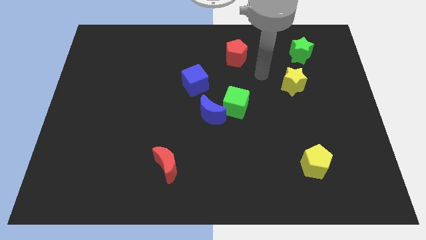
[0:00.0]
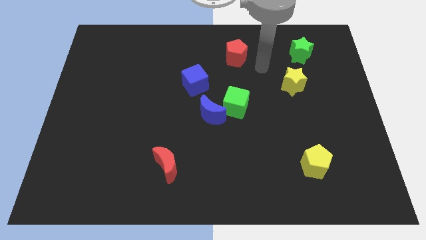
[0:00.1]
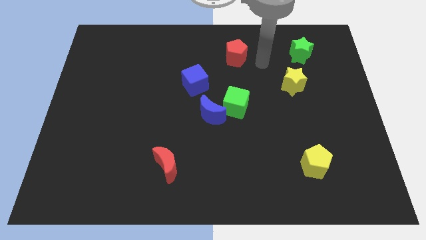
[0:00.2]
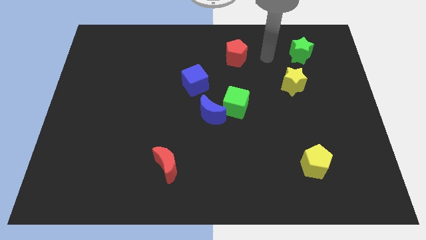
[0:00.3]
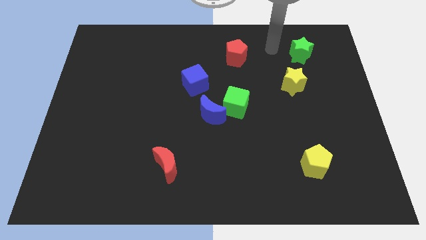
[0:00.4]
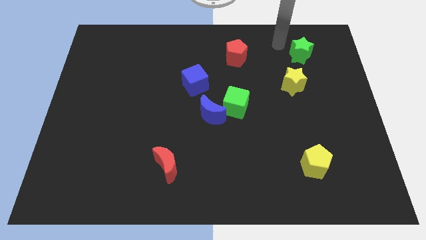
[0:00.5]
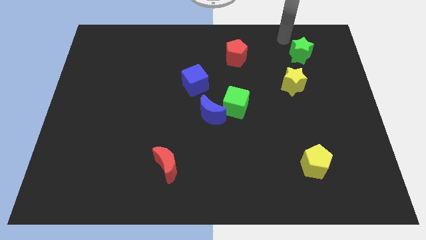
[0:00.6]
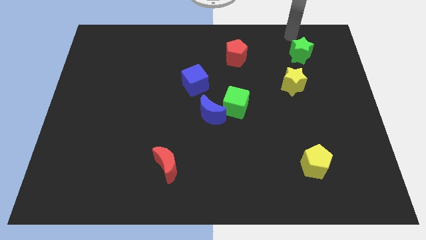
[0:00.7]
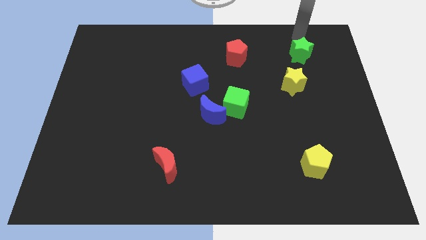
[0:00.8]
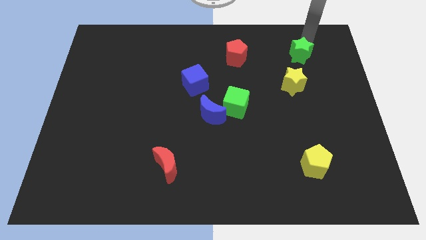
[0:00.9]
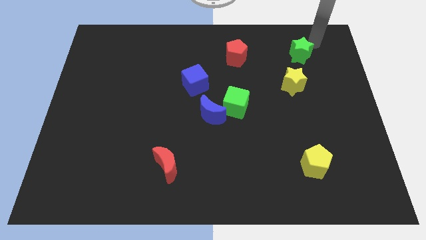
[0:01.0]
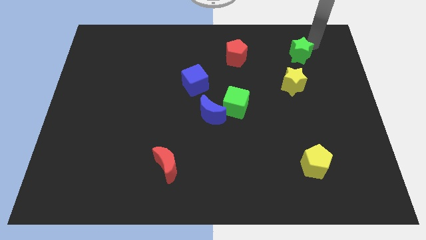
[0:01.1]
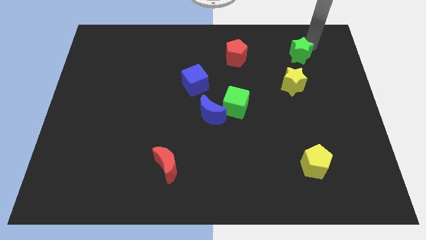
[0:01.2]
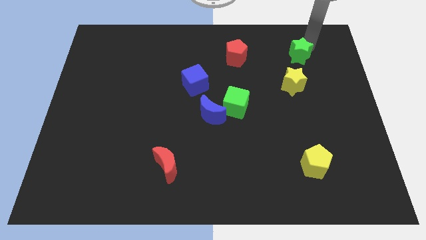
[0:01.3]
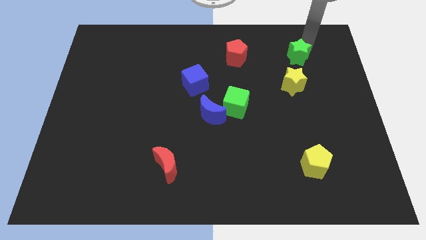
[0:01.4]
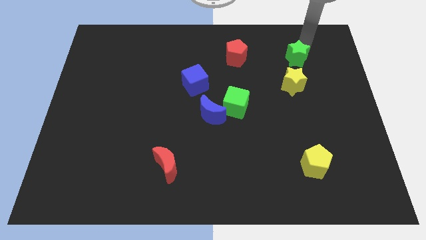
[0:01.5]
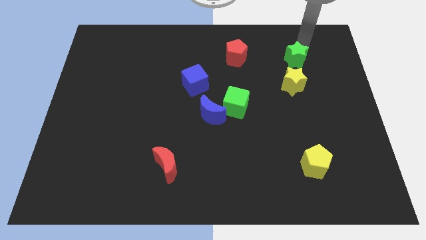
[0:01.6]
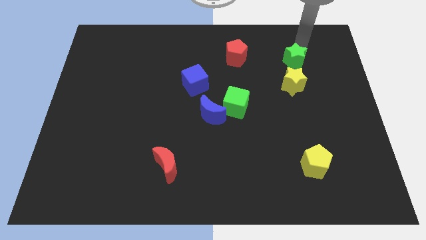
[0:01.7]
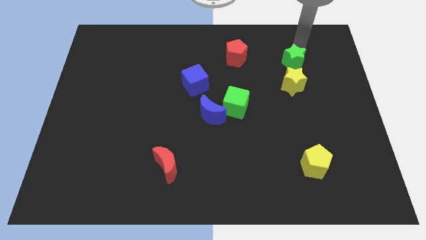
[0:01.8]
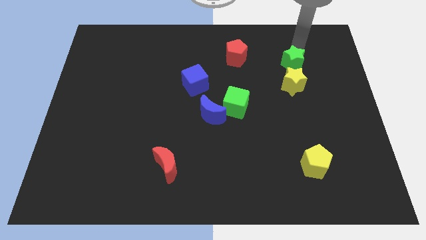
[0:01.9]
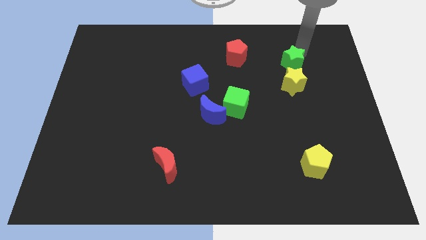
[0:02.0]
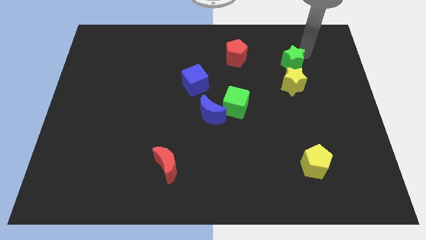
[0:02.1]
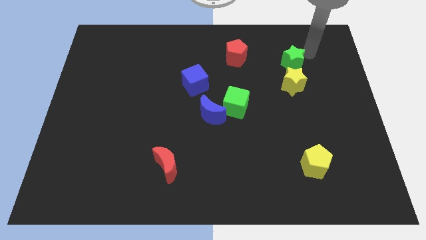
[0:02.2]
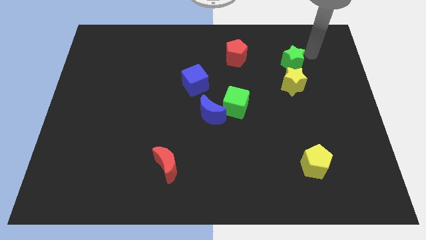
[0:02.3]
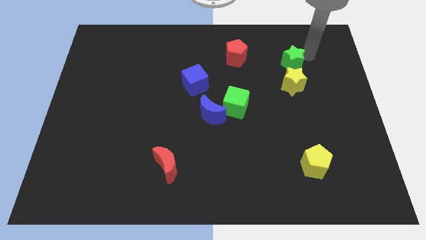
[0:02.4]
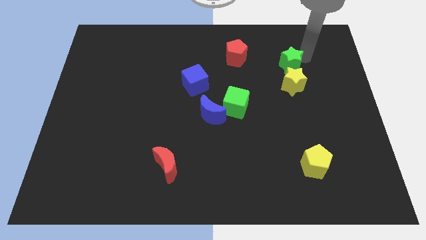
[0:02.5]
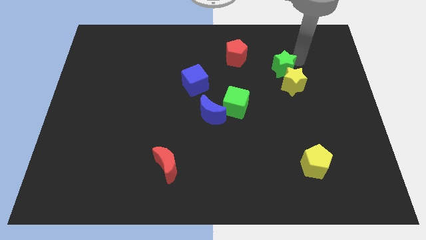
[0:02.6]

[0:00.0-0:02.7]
slide the green star a little diagonally downwards and left

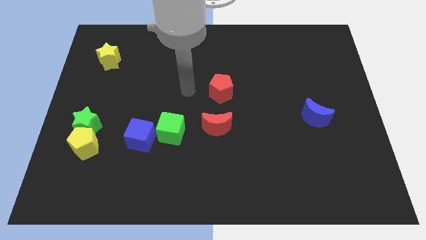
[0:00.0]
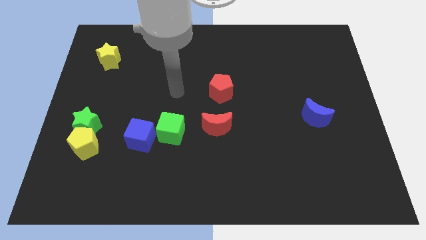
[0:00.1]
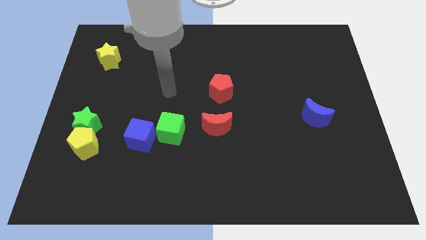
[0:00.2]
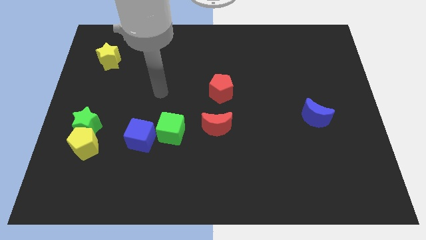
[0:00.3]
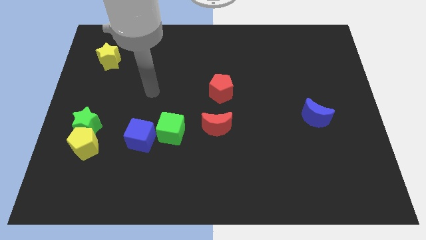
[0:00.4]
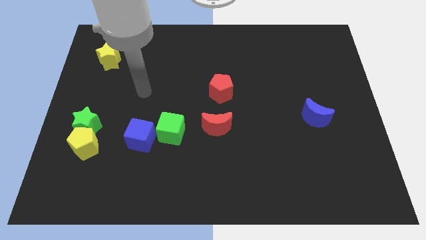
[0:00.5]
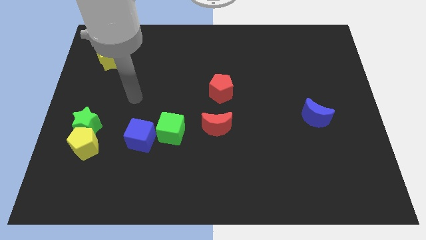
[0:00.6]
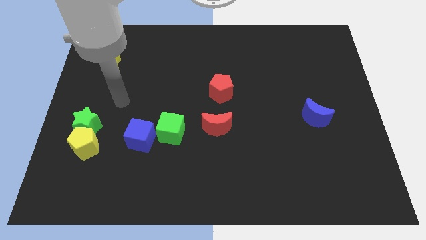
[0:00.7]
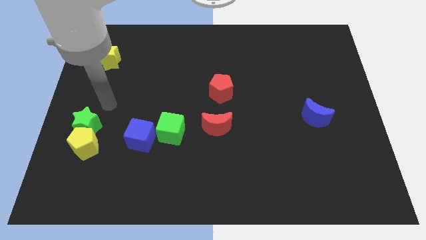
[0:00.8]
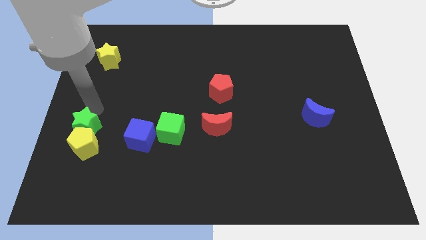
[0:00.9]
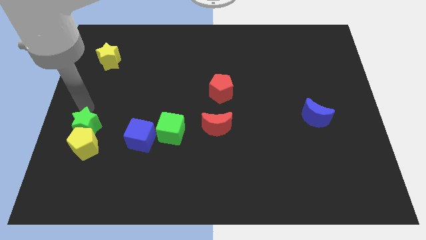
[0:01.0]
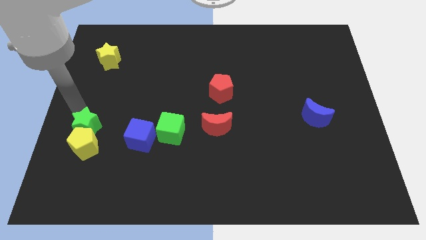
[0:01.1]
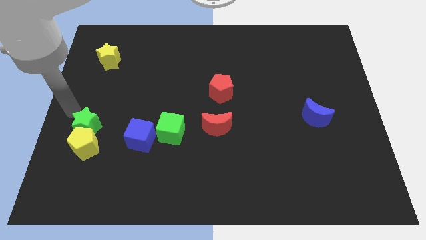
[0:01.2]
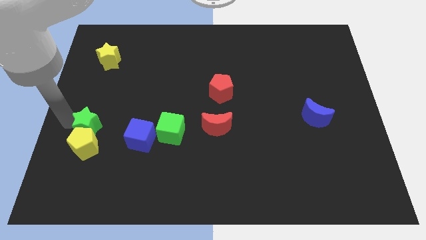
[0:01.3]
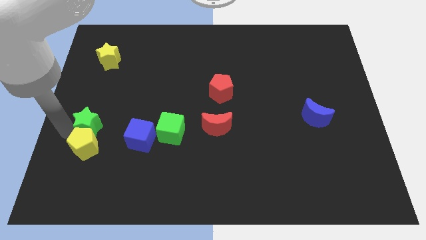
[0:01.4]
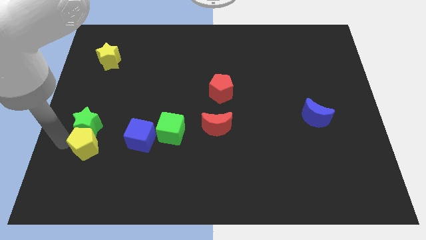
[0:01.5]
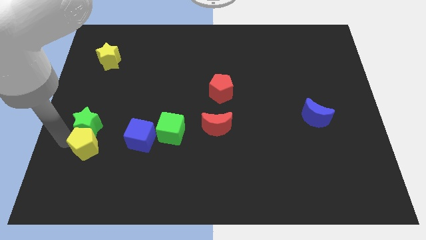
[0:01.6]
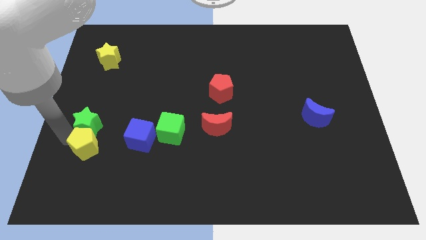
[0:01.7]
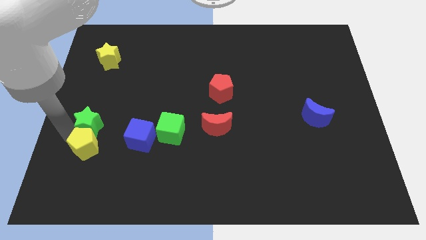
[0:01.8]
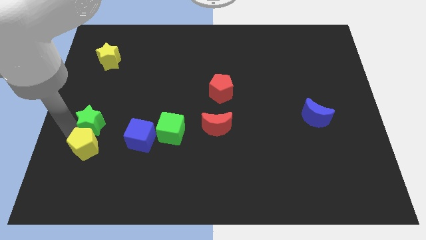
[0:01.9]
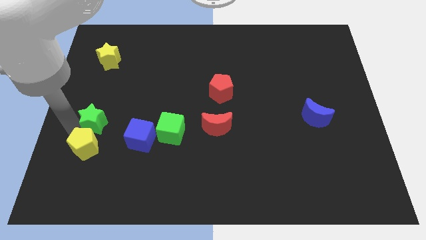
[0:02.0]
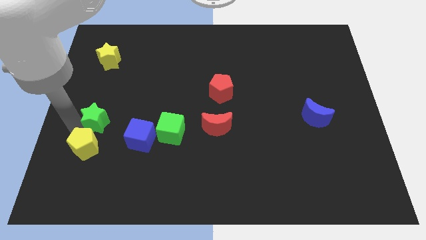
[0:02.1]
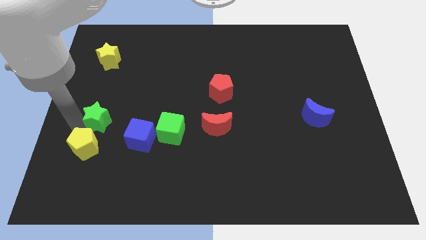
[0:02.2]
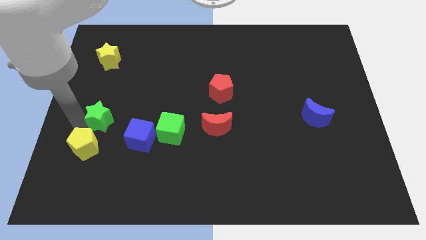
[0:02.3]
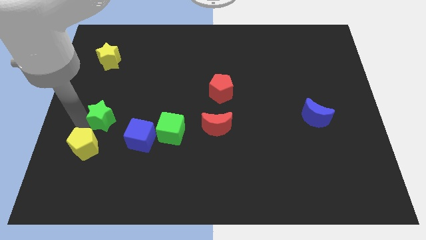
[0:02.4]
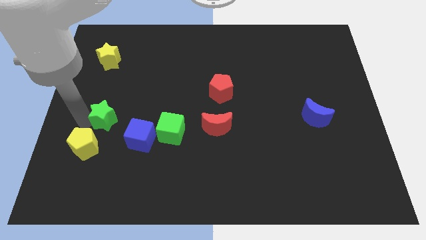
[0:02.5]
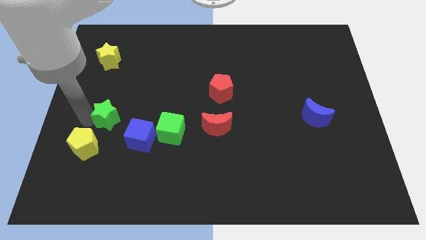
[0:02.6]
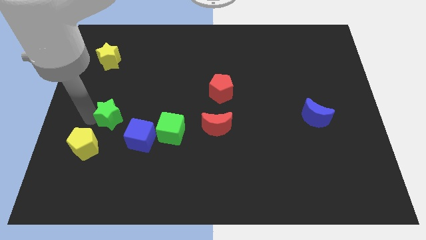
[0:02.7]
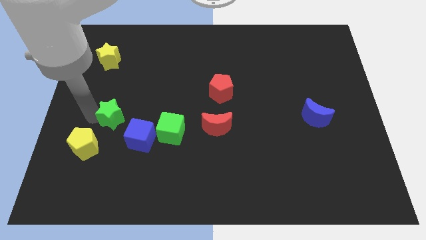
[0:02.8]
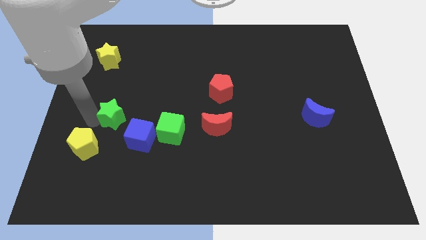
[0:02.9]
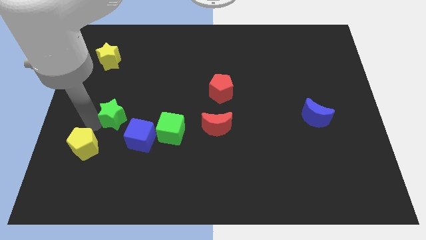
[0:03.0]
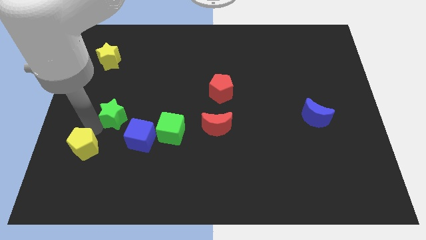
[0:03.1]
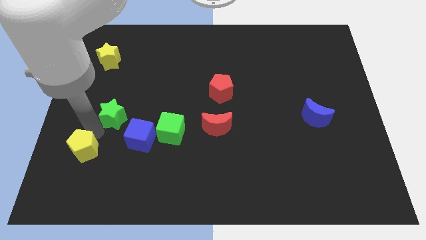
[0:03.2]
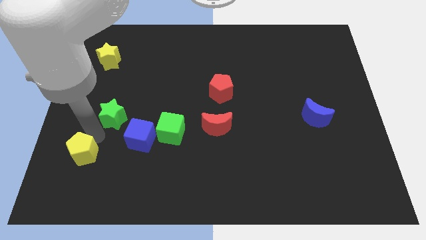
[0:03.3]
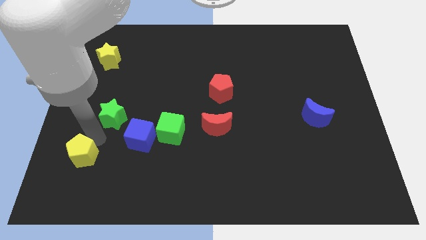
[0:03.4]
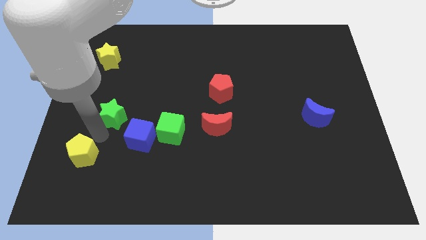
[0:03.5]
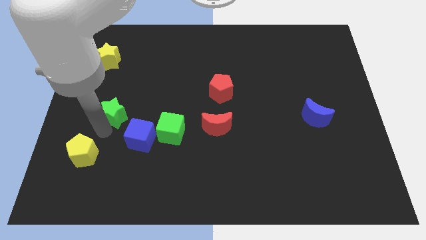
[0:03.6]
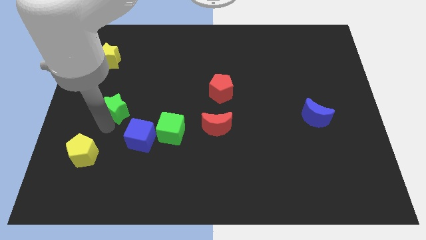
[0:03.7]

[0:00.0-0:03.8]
move the green star upwards and to the right diagonally a bit

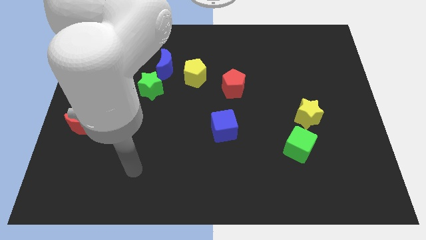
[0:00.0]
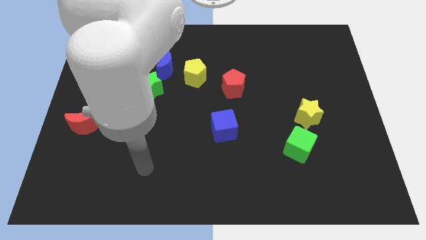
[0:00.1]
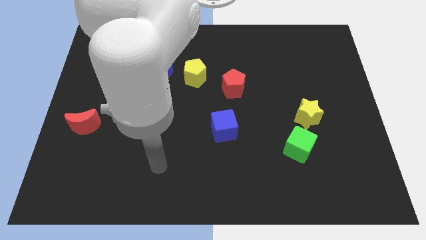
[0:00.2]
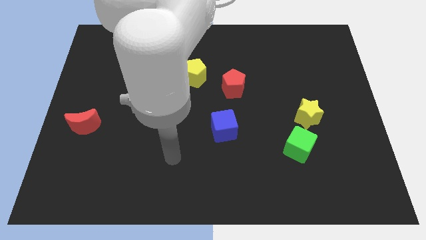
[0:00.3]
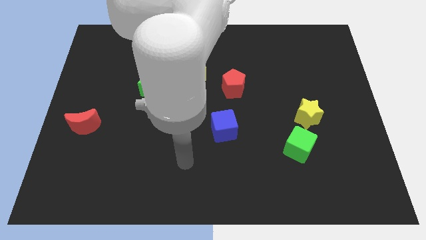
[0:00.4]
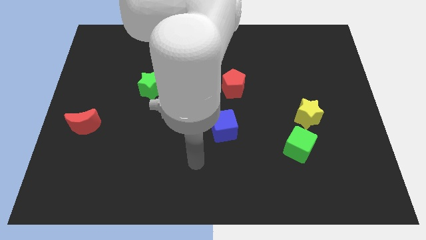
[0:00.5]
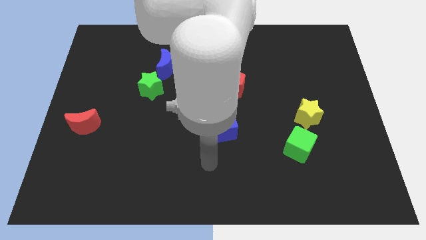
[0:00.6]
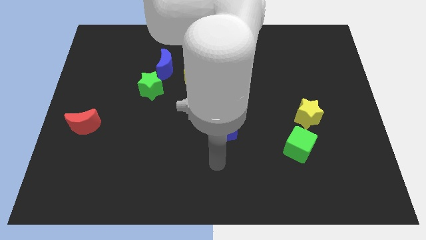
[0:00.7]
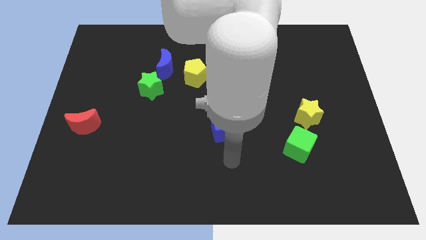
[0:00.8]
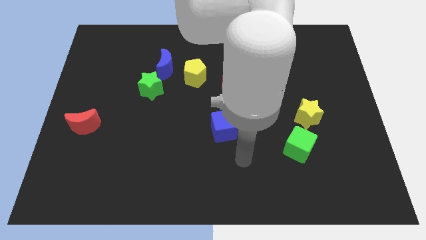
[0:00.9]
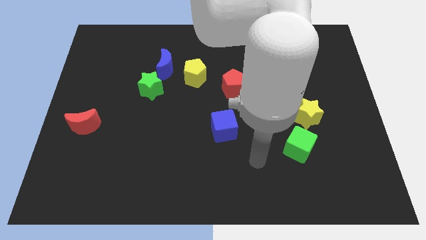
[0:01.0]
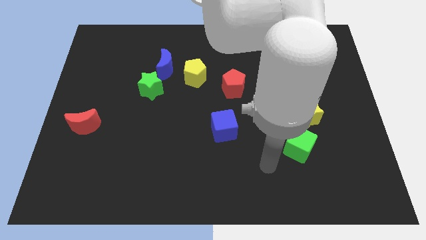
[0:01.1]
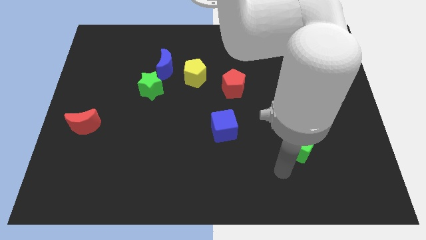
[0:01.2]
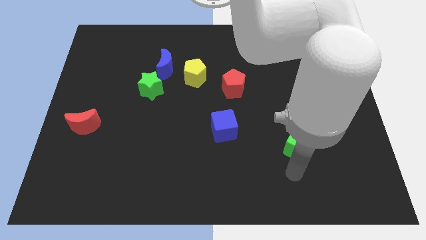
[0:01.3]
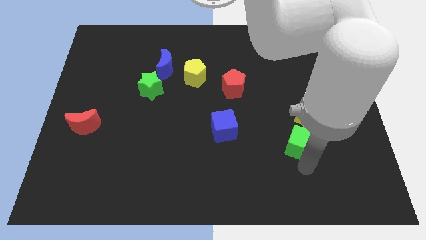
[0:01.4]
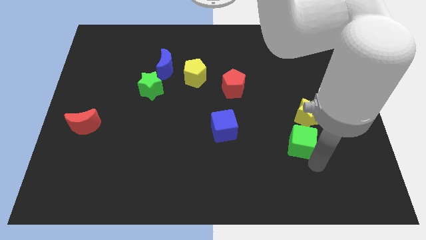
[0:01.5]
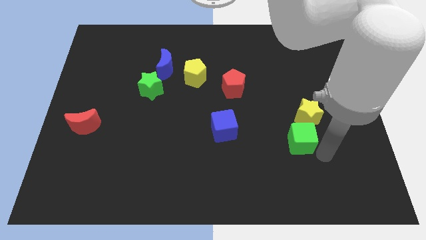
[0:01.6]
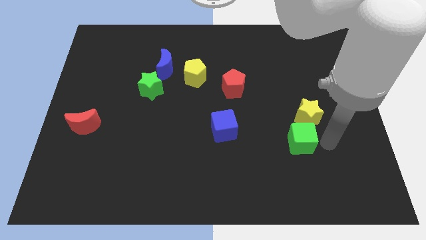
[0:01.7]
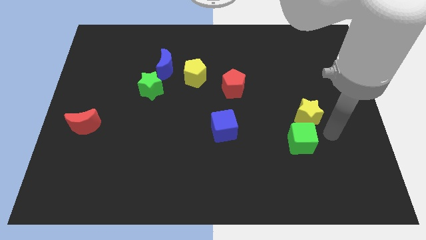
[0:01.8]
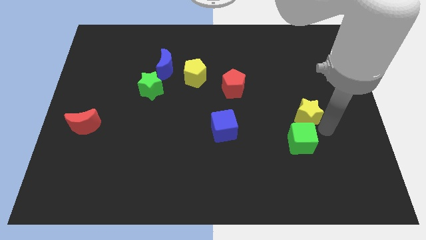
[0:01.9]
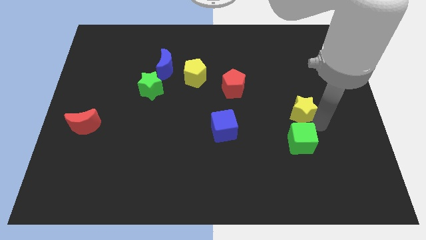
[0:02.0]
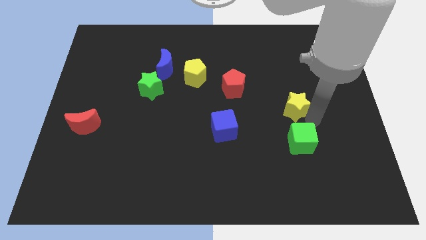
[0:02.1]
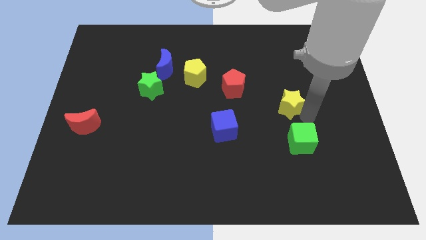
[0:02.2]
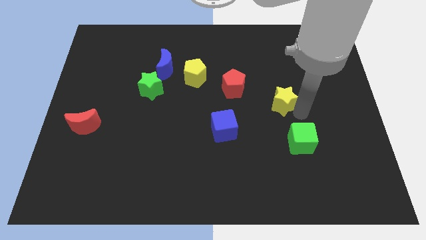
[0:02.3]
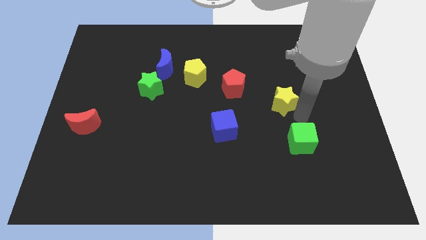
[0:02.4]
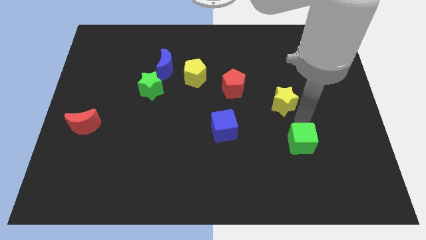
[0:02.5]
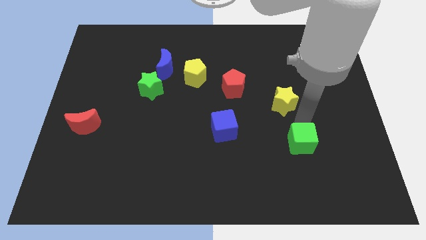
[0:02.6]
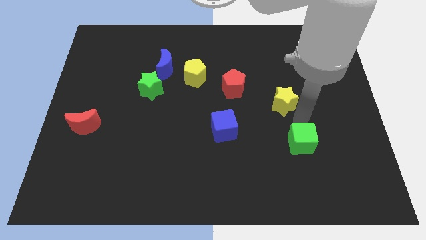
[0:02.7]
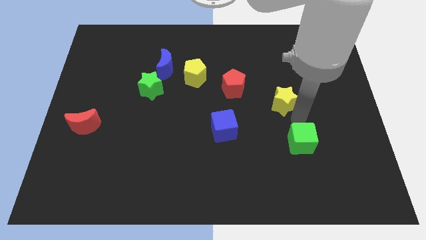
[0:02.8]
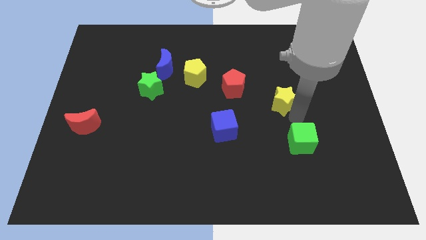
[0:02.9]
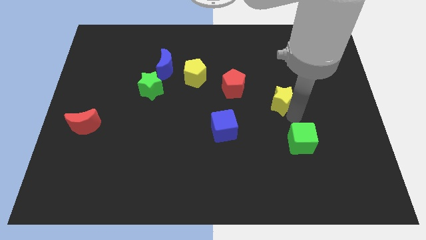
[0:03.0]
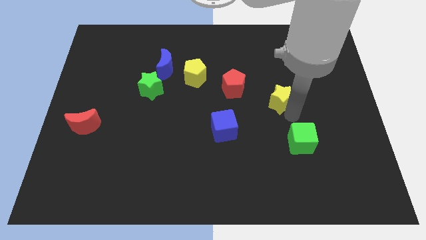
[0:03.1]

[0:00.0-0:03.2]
slightly slide the yellow star upwards and left diagonally
